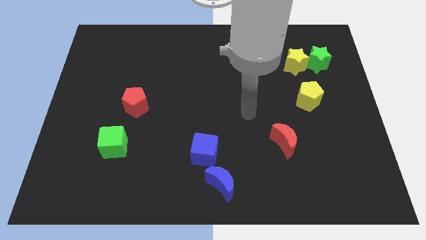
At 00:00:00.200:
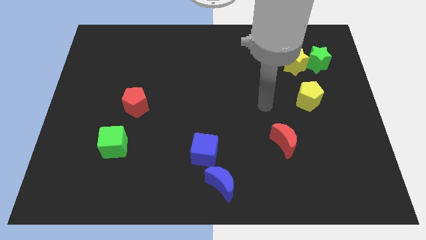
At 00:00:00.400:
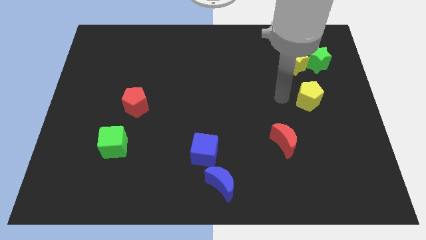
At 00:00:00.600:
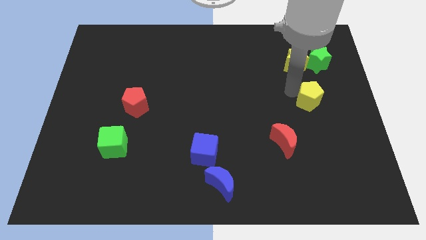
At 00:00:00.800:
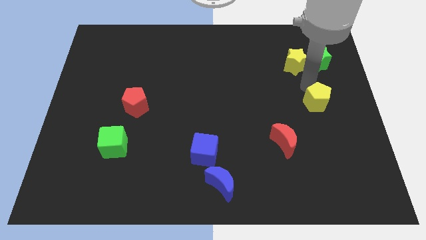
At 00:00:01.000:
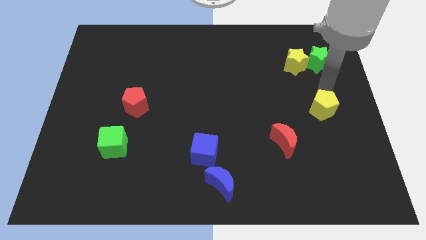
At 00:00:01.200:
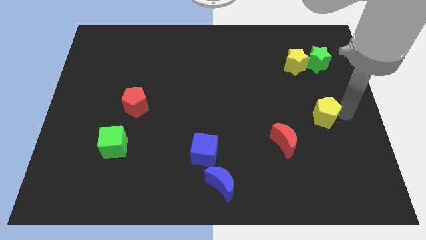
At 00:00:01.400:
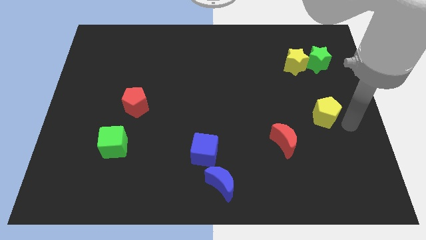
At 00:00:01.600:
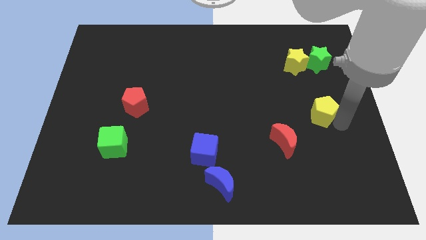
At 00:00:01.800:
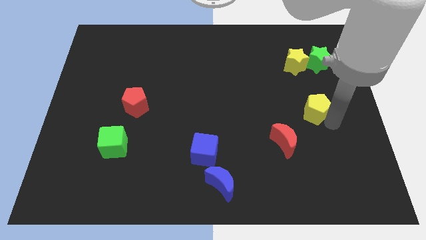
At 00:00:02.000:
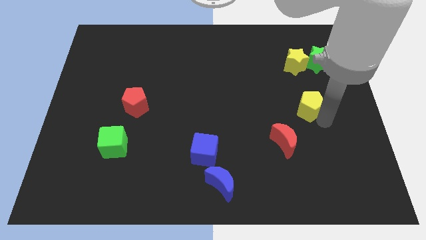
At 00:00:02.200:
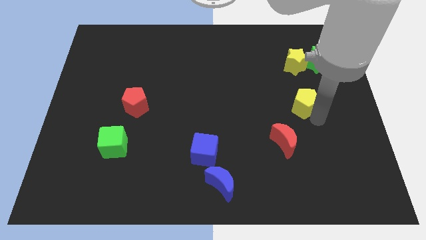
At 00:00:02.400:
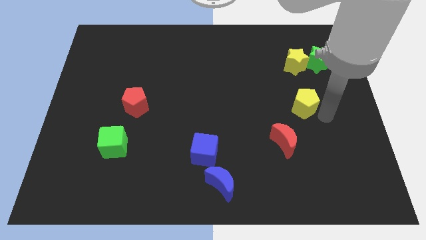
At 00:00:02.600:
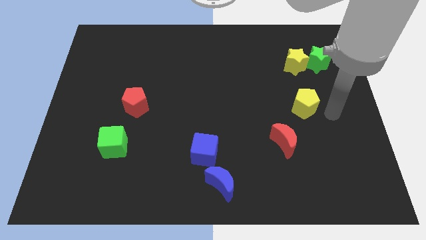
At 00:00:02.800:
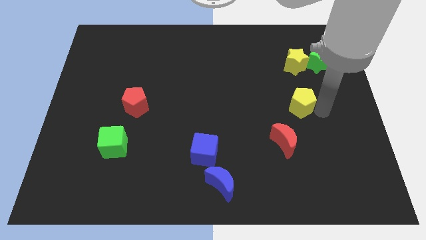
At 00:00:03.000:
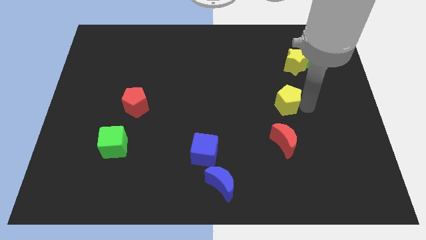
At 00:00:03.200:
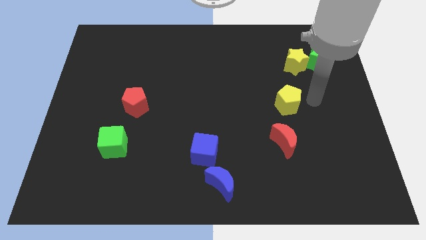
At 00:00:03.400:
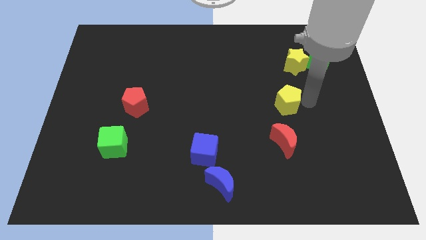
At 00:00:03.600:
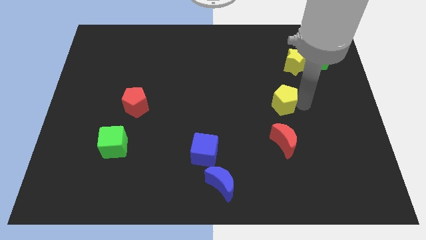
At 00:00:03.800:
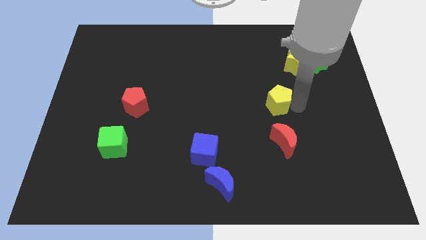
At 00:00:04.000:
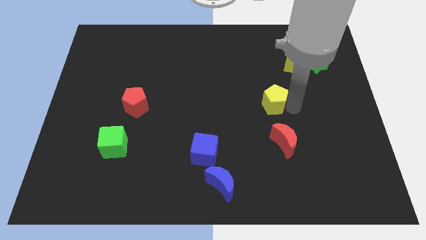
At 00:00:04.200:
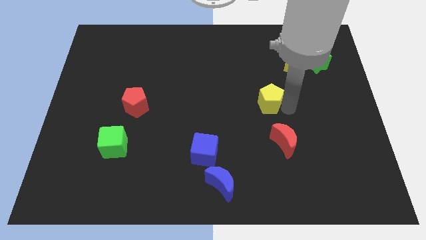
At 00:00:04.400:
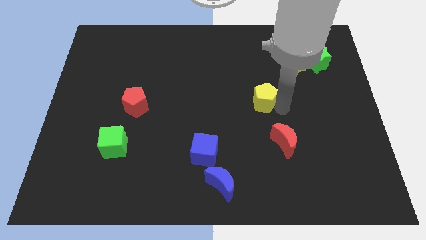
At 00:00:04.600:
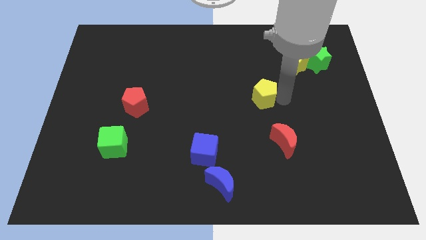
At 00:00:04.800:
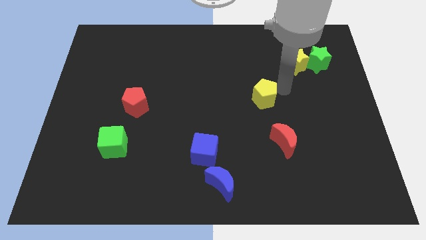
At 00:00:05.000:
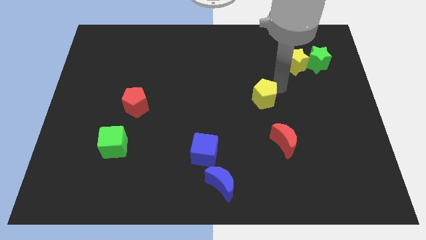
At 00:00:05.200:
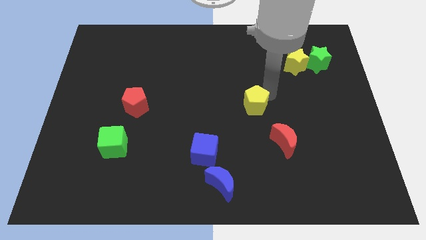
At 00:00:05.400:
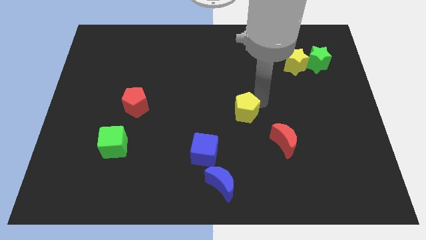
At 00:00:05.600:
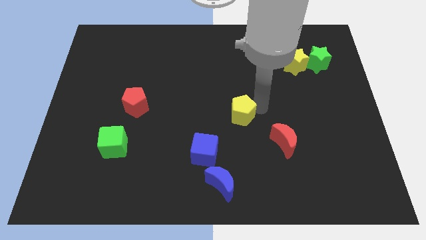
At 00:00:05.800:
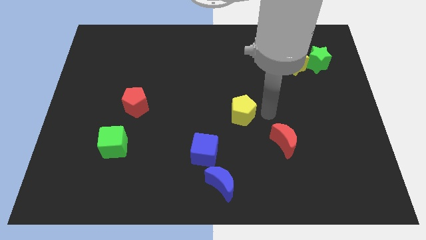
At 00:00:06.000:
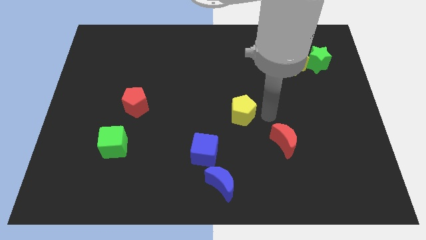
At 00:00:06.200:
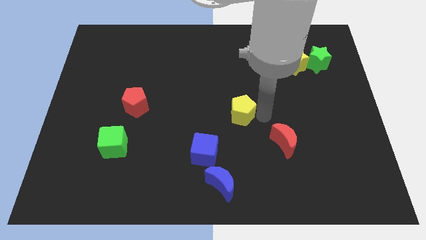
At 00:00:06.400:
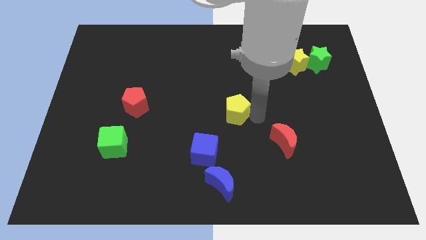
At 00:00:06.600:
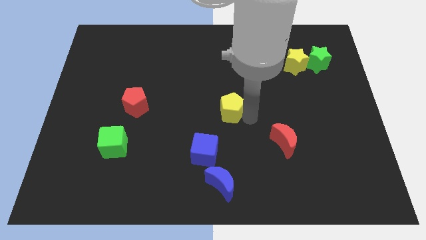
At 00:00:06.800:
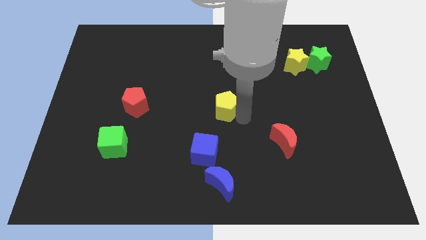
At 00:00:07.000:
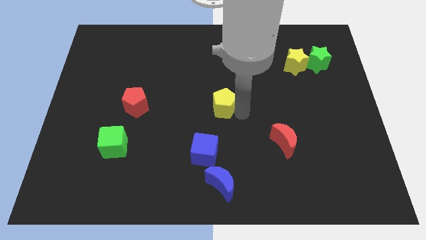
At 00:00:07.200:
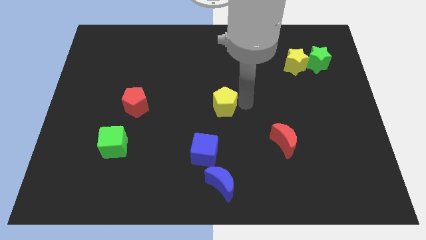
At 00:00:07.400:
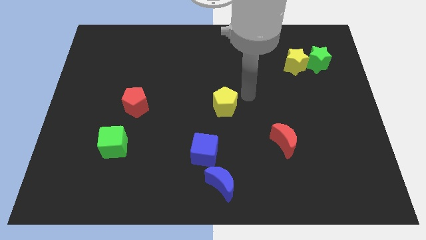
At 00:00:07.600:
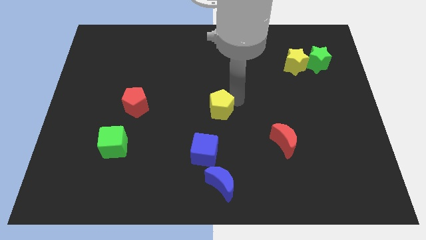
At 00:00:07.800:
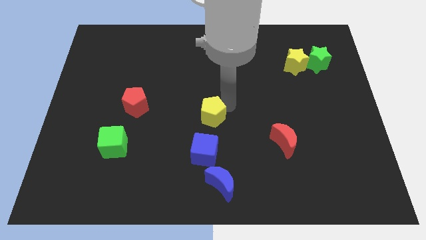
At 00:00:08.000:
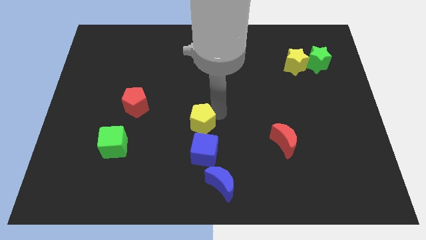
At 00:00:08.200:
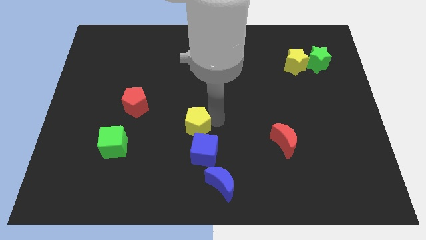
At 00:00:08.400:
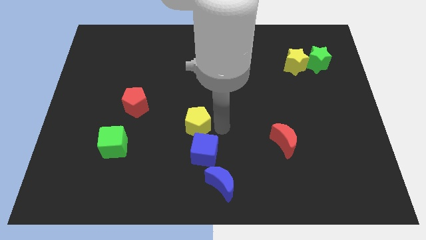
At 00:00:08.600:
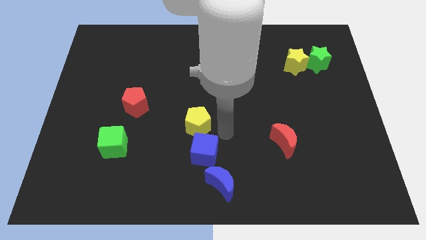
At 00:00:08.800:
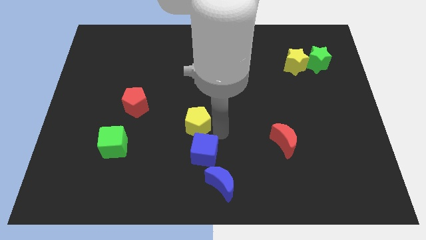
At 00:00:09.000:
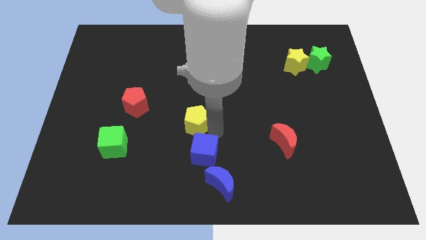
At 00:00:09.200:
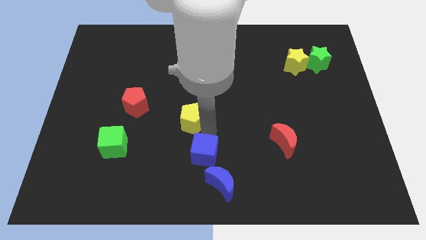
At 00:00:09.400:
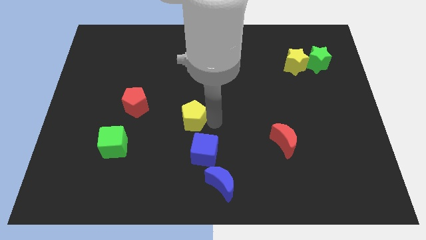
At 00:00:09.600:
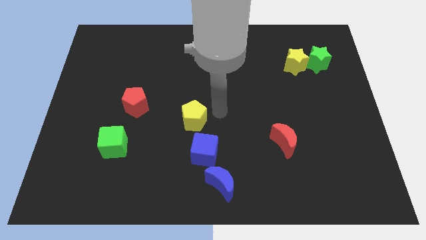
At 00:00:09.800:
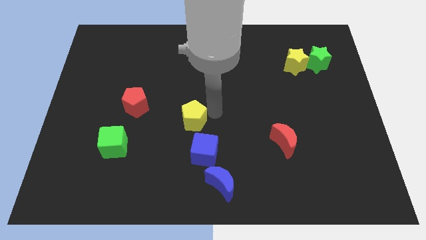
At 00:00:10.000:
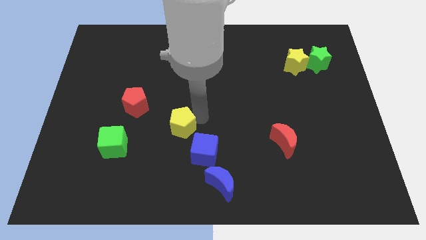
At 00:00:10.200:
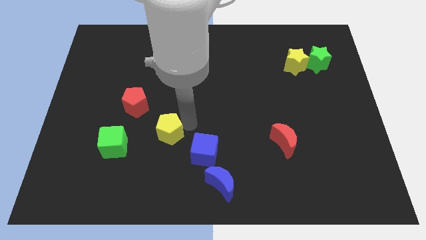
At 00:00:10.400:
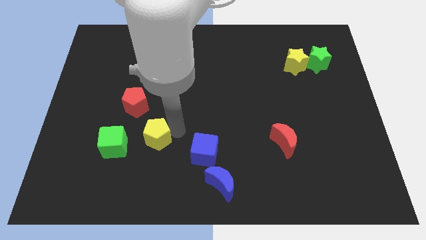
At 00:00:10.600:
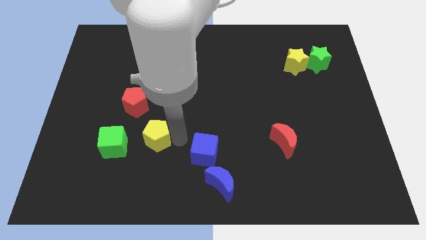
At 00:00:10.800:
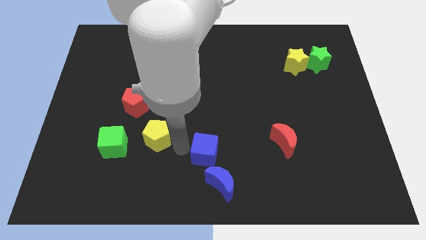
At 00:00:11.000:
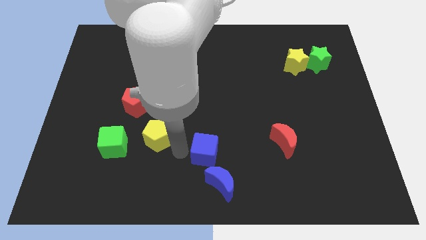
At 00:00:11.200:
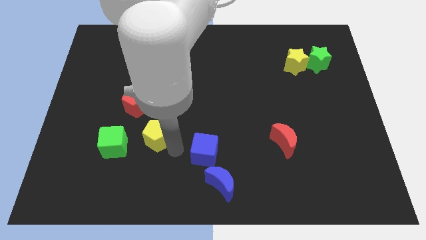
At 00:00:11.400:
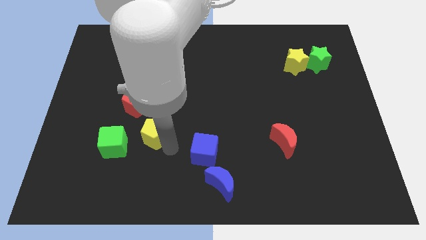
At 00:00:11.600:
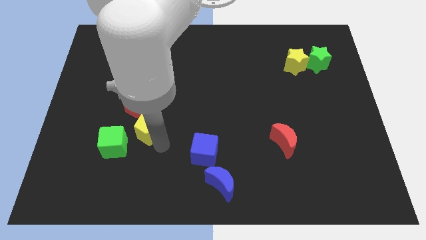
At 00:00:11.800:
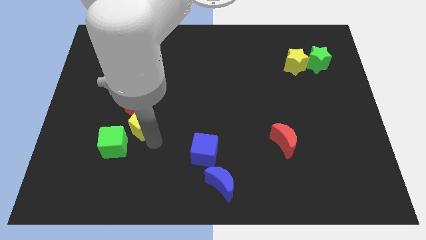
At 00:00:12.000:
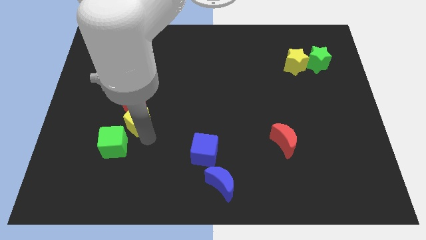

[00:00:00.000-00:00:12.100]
push the yellow pentagon to the bottom left of the red pentagon

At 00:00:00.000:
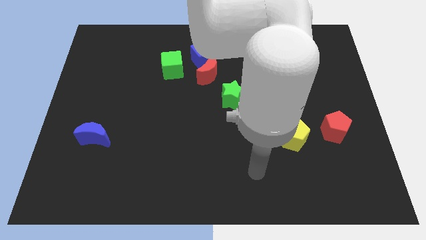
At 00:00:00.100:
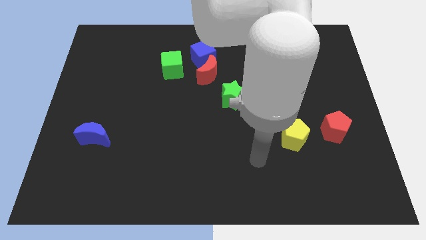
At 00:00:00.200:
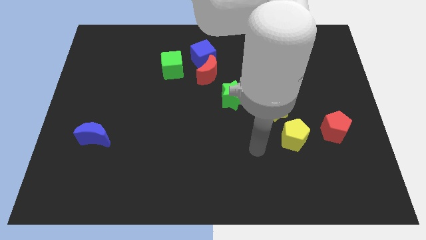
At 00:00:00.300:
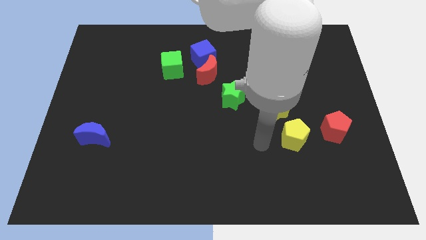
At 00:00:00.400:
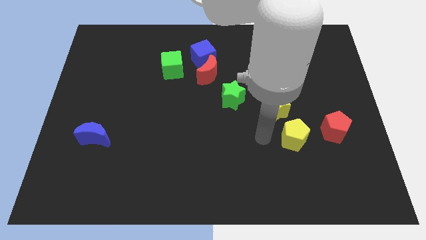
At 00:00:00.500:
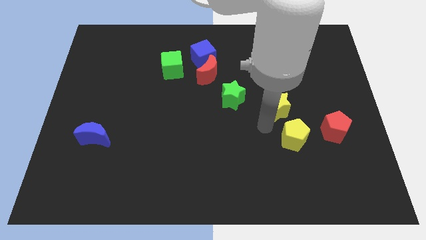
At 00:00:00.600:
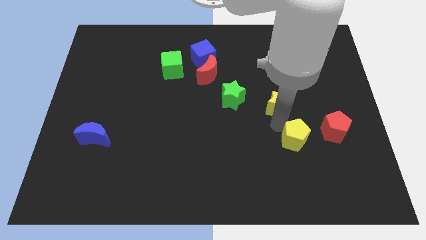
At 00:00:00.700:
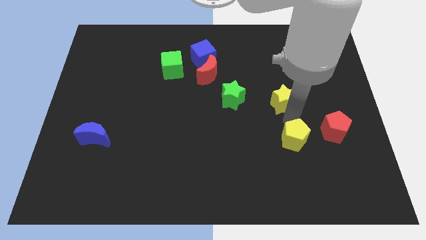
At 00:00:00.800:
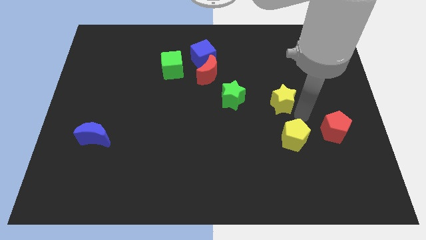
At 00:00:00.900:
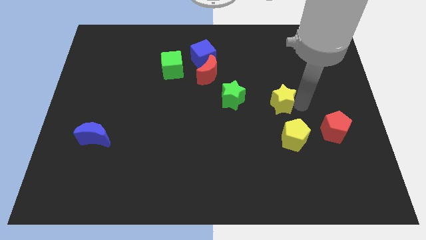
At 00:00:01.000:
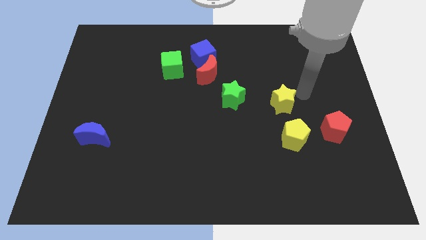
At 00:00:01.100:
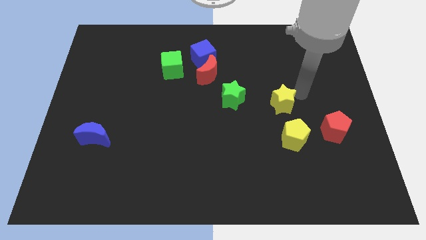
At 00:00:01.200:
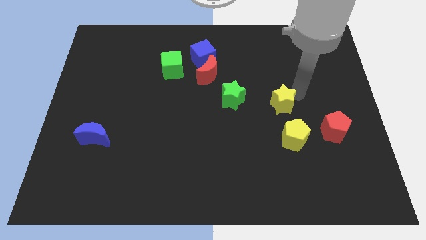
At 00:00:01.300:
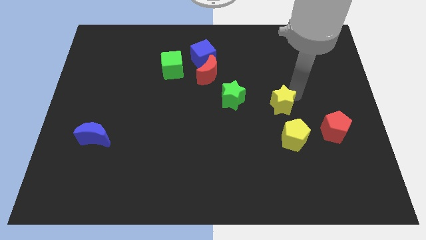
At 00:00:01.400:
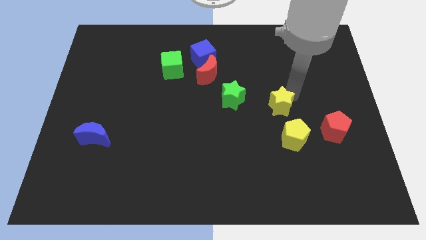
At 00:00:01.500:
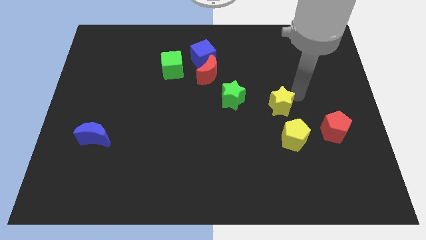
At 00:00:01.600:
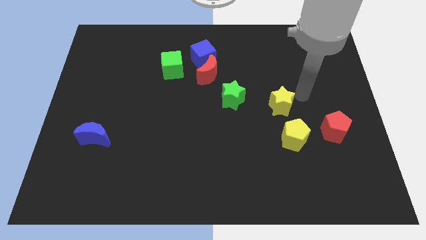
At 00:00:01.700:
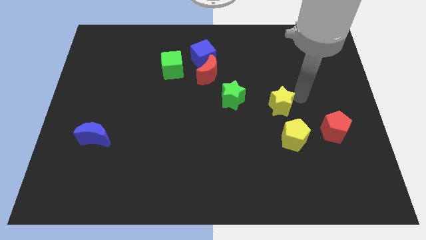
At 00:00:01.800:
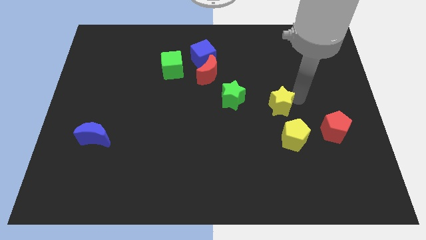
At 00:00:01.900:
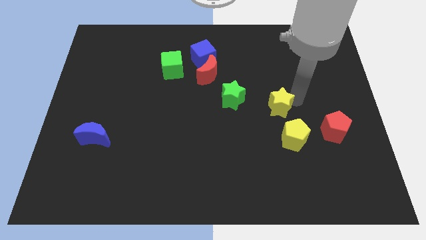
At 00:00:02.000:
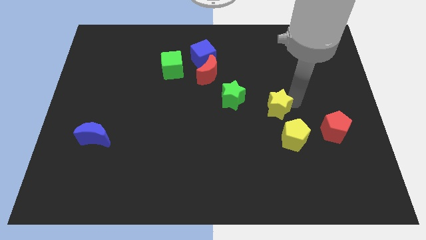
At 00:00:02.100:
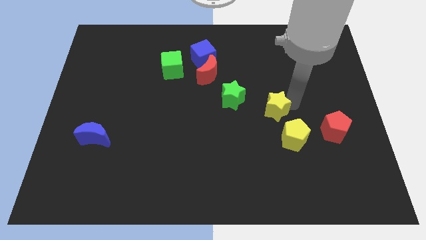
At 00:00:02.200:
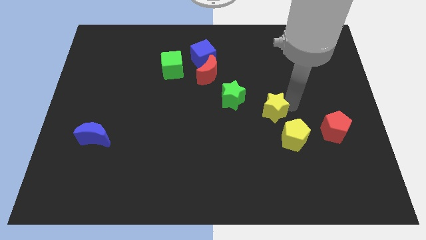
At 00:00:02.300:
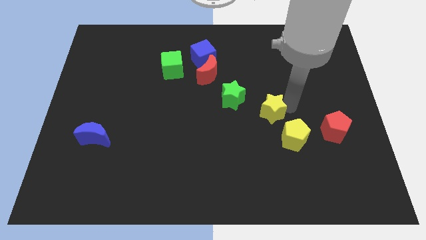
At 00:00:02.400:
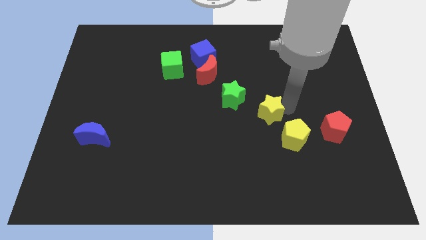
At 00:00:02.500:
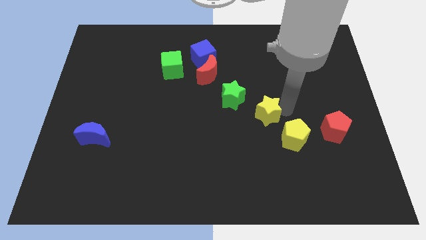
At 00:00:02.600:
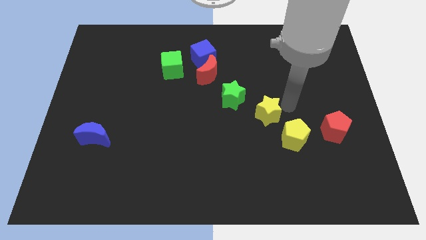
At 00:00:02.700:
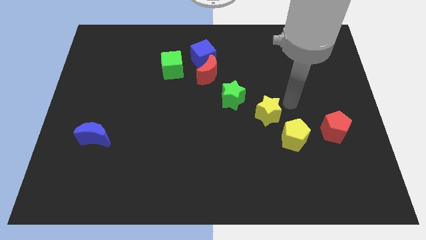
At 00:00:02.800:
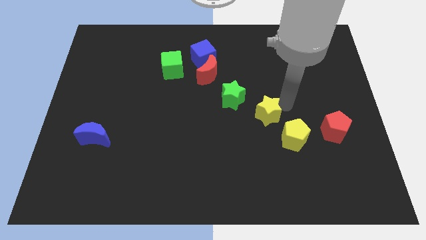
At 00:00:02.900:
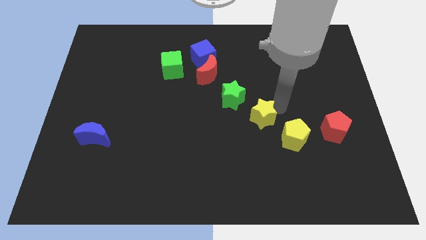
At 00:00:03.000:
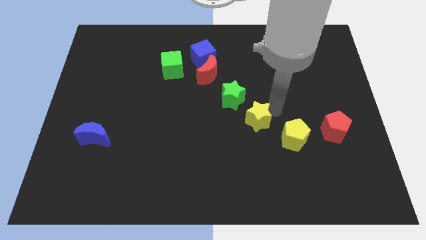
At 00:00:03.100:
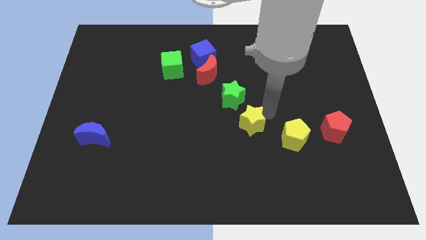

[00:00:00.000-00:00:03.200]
push the yellow star to the bottom of the green star
